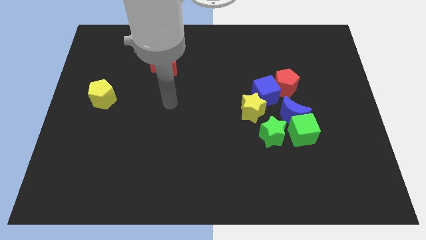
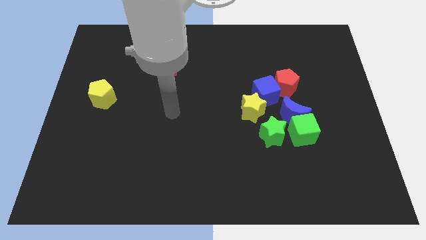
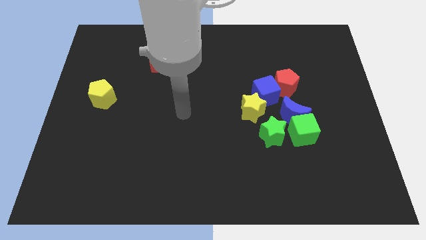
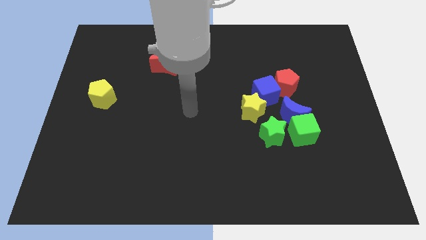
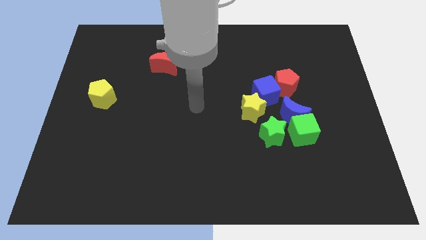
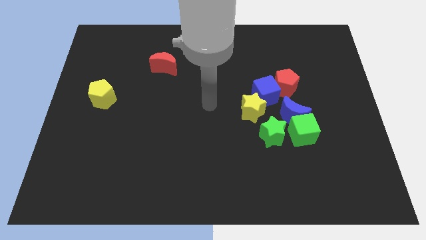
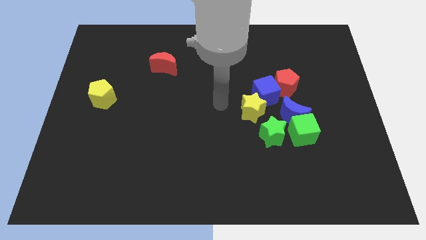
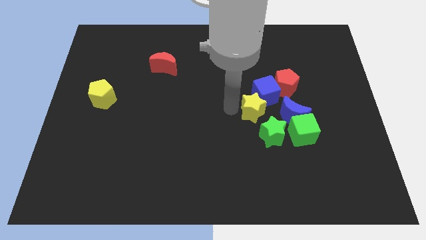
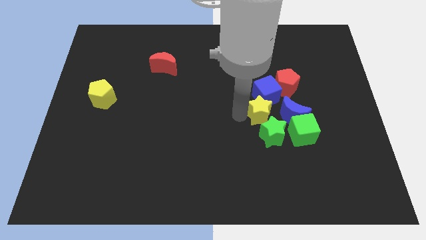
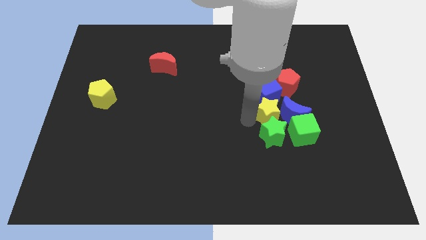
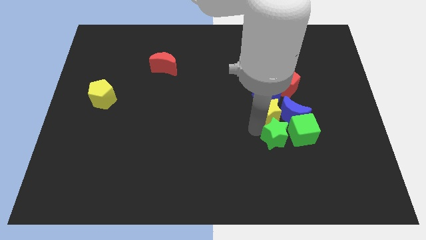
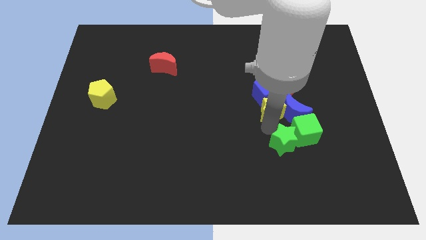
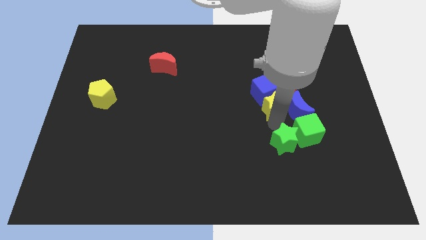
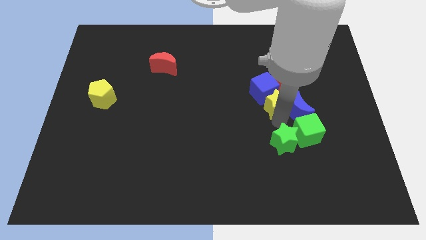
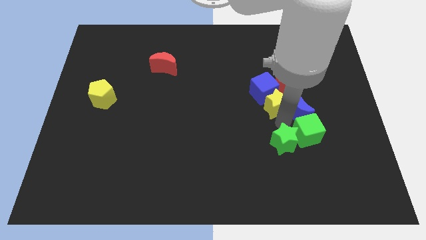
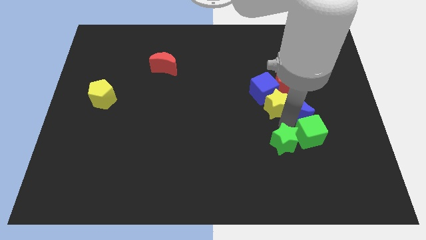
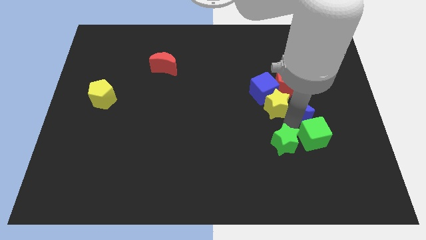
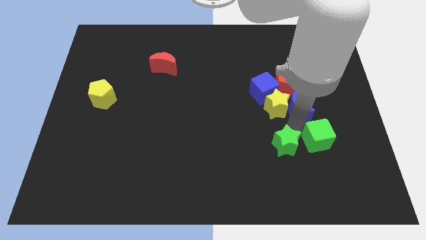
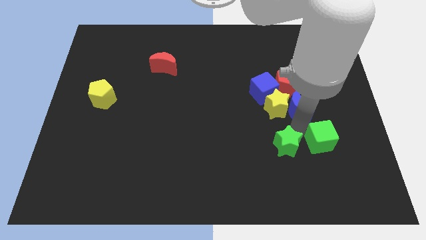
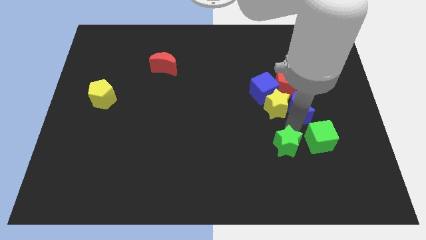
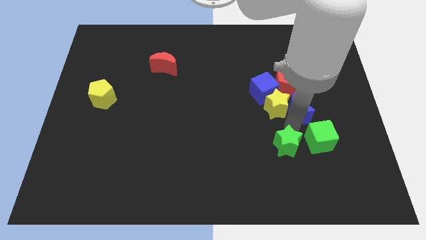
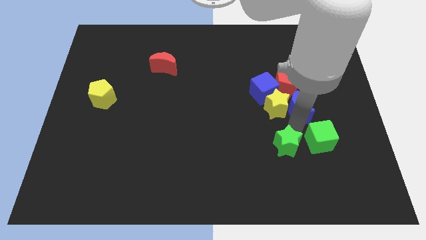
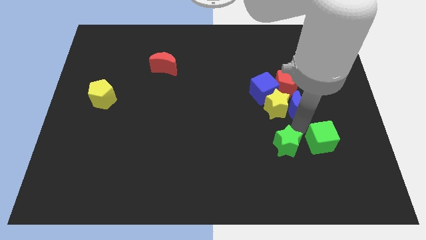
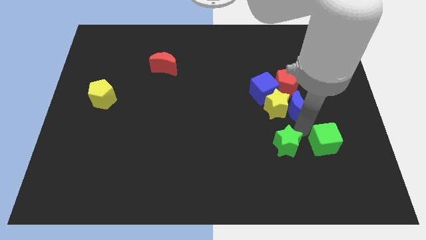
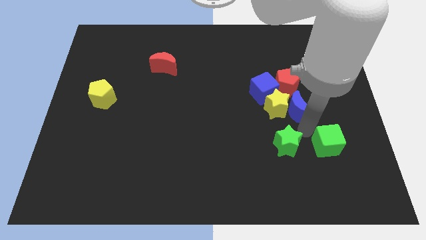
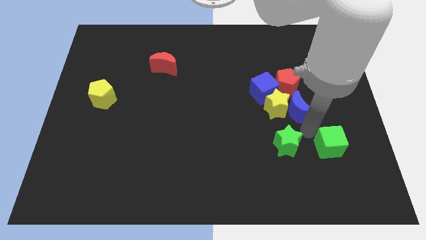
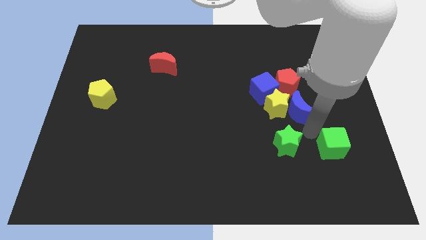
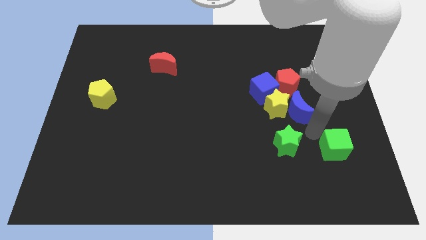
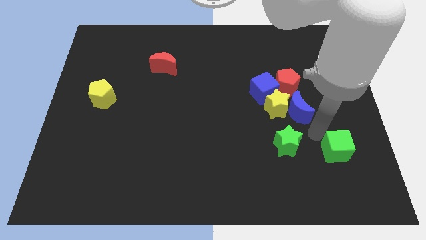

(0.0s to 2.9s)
move the green cube away from the blue moon and green star

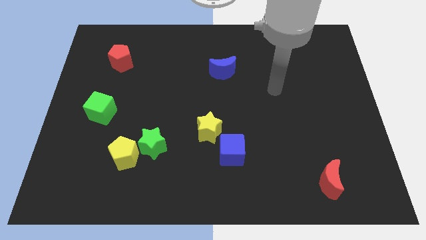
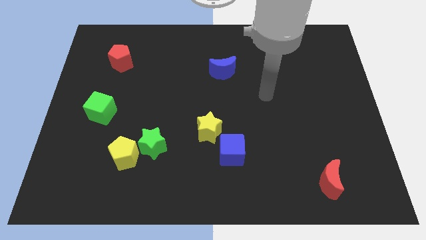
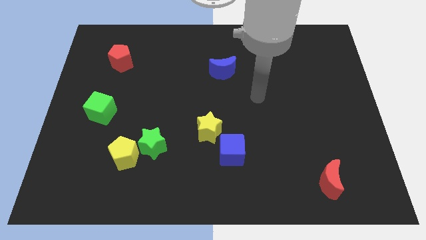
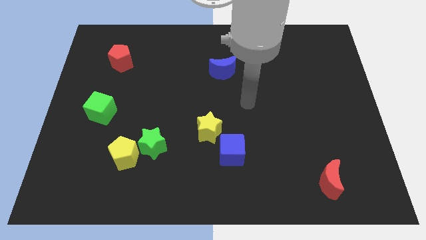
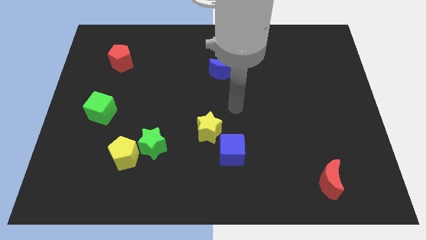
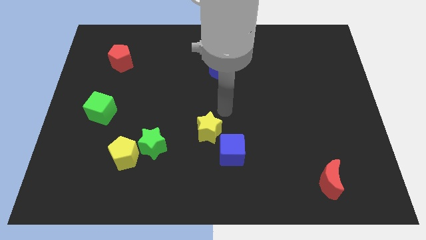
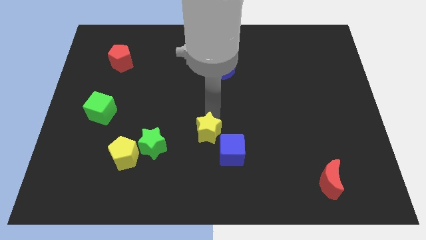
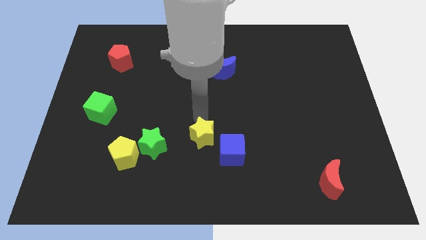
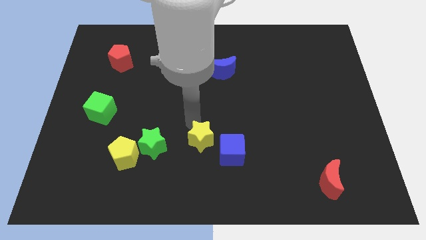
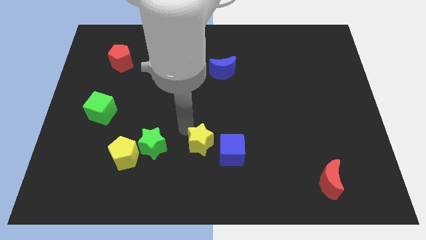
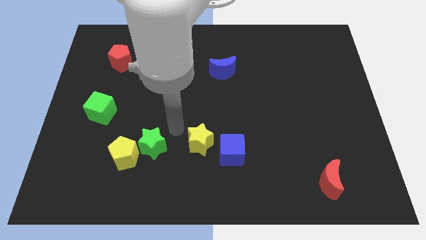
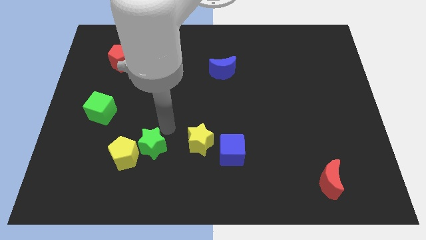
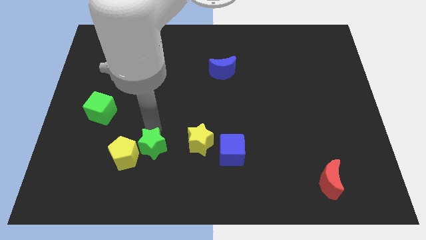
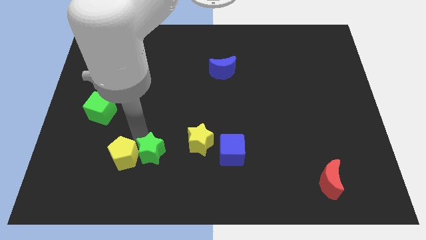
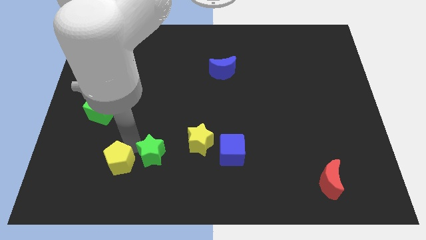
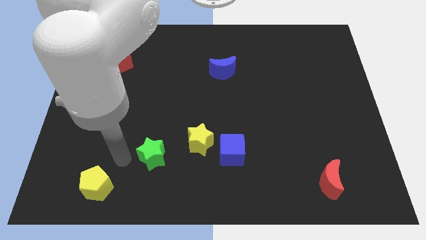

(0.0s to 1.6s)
move the green star away from the yellow pentagon

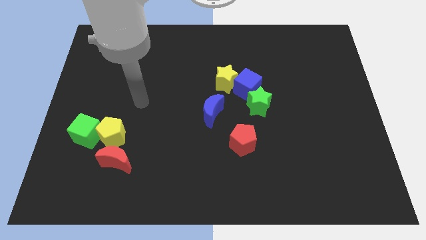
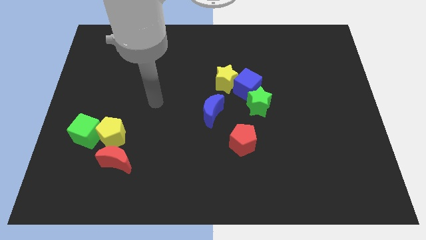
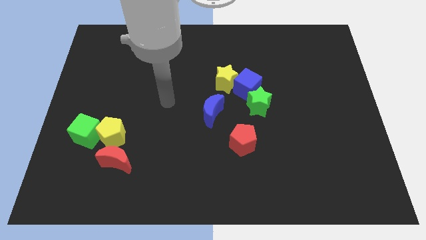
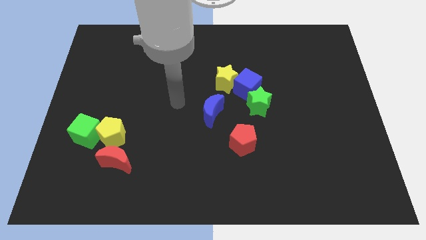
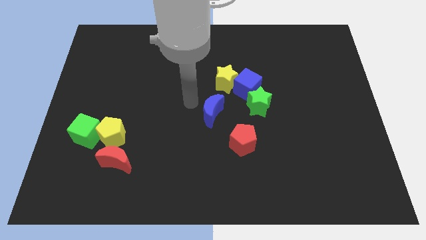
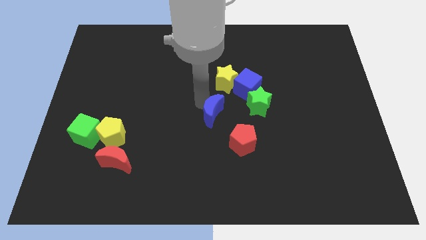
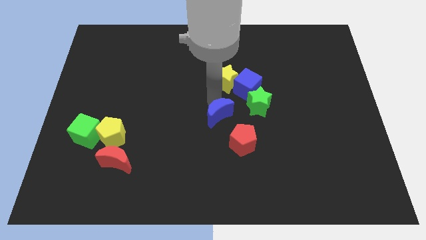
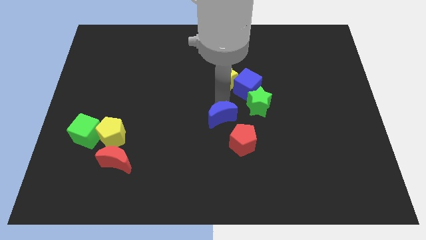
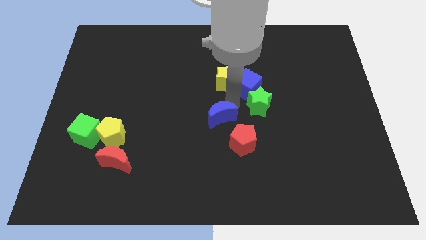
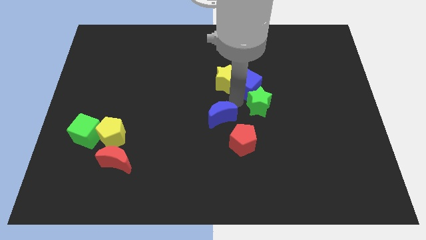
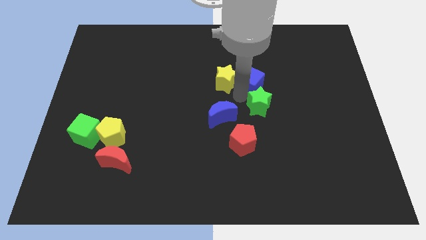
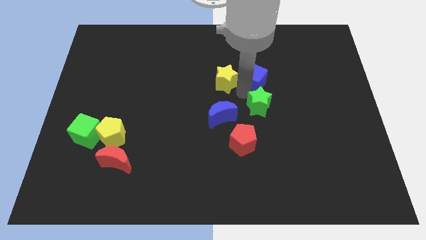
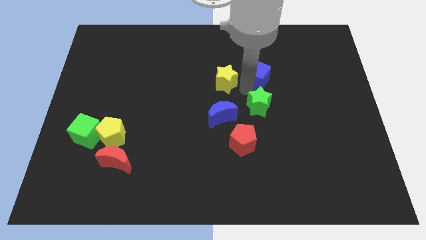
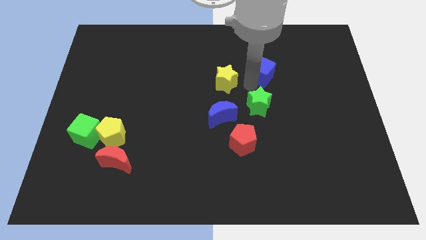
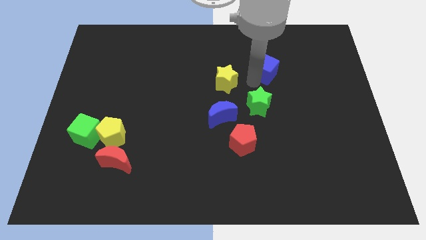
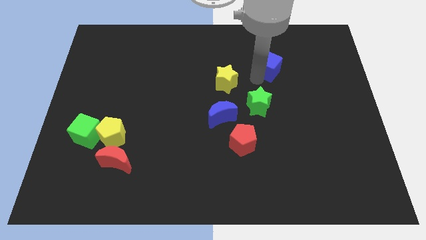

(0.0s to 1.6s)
separate the blue cube from the yellow star and green star

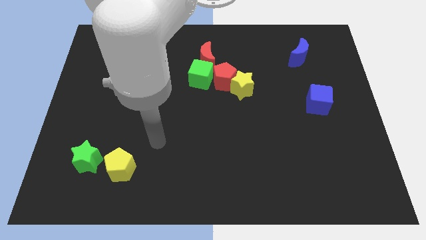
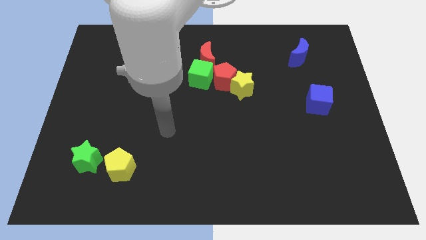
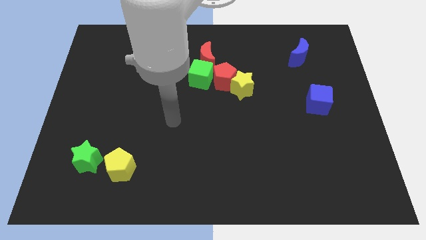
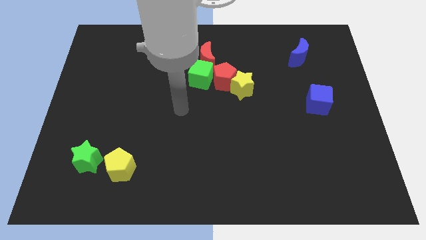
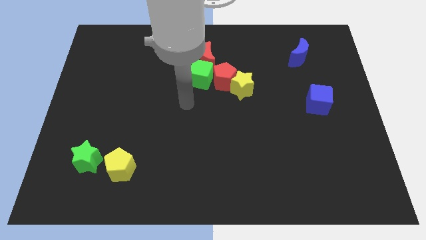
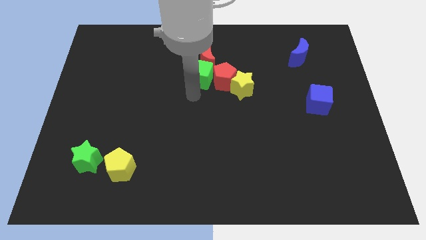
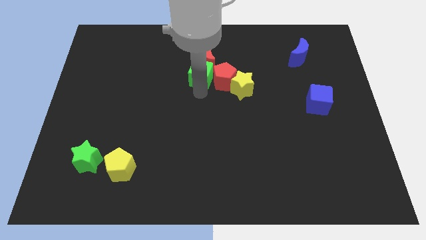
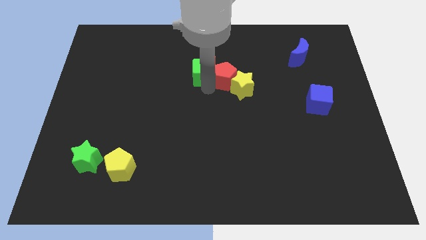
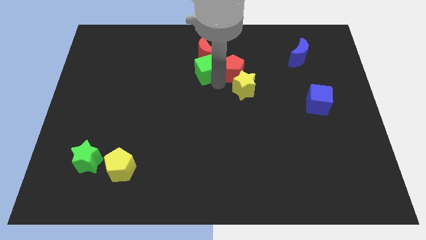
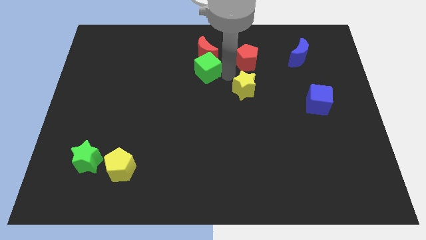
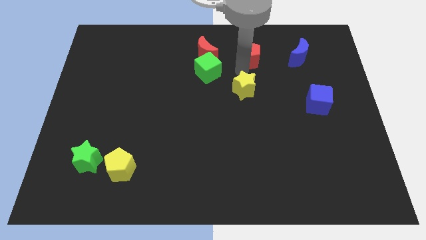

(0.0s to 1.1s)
move the yellow star away from the red pentagon

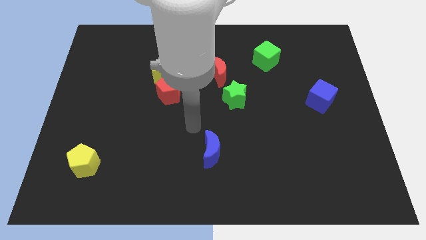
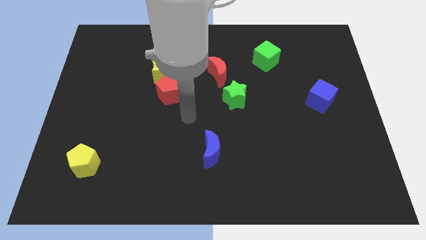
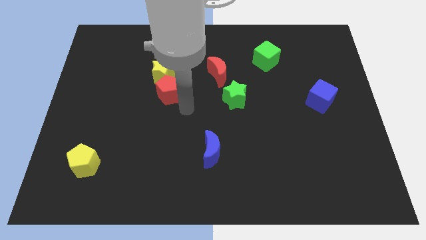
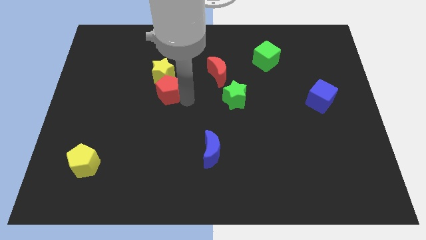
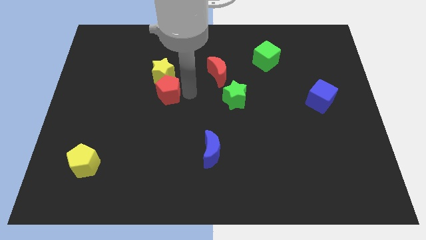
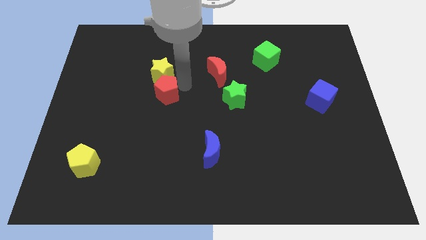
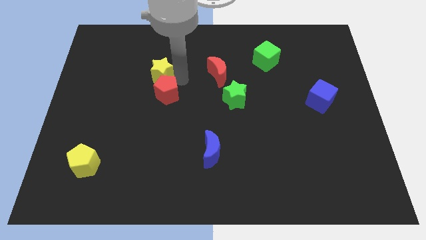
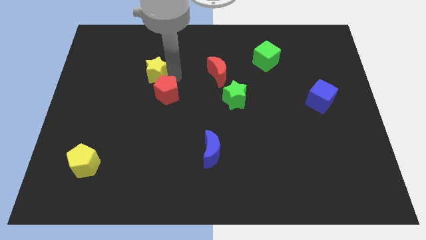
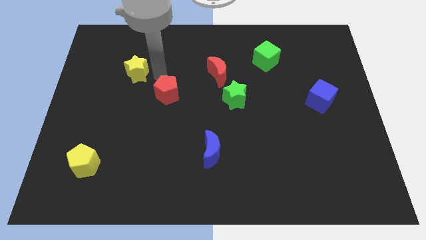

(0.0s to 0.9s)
separate the red pentagon from the yellow star

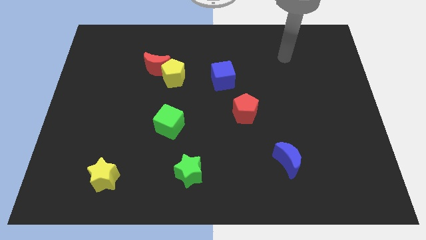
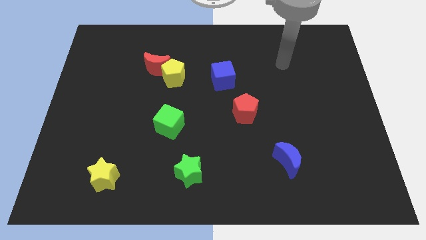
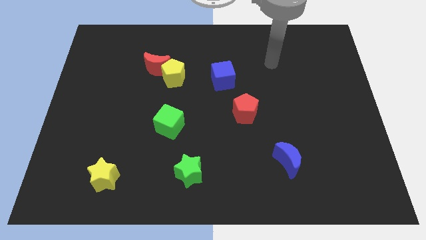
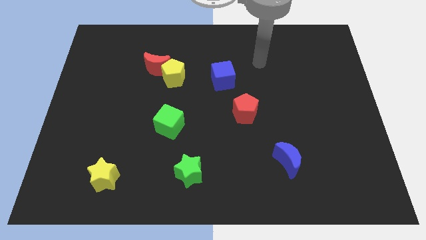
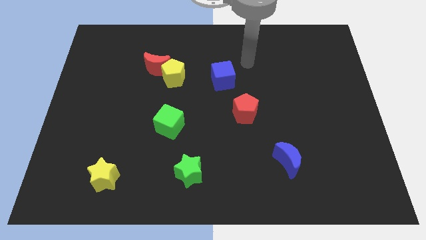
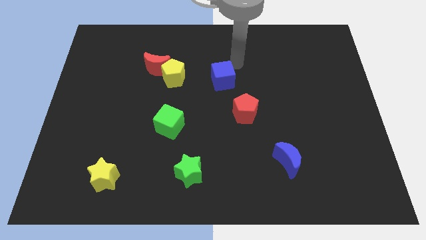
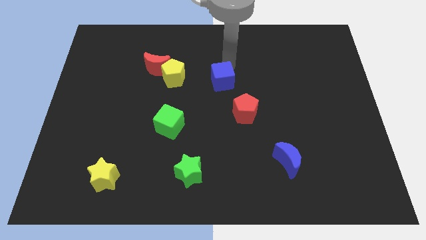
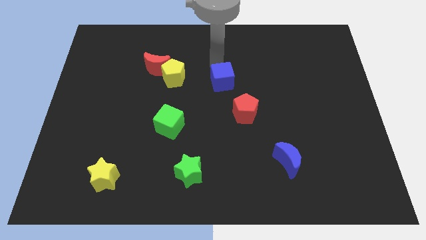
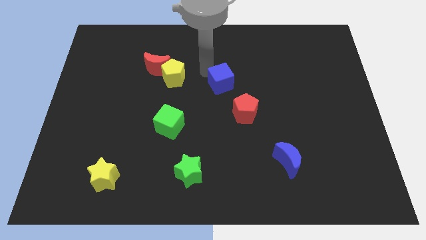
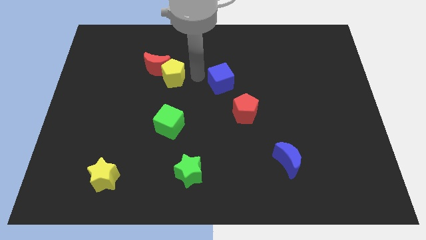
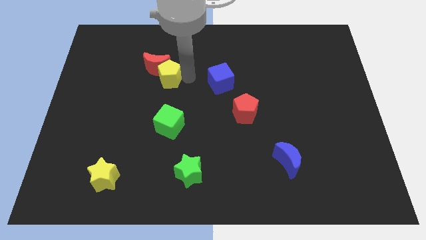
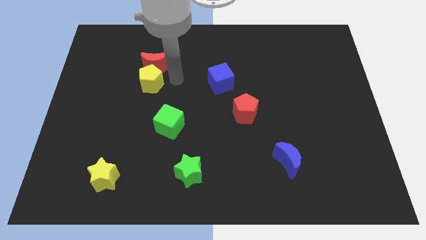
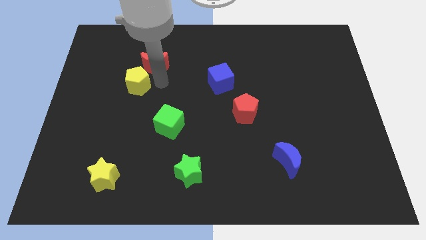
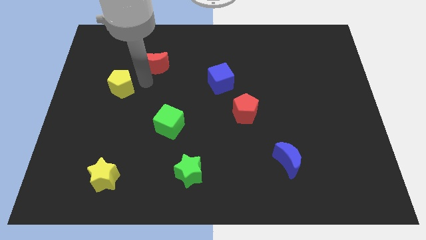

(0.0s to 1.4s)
move the red moon away from the yellow pentagon
